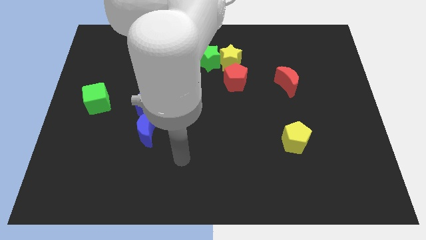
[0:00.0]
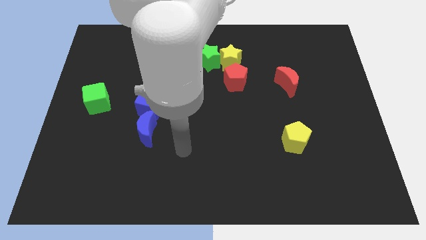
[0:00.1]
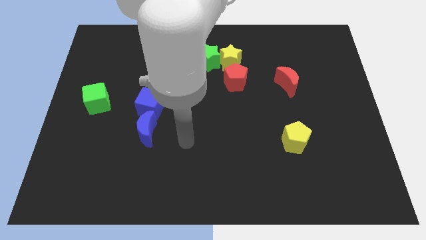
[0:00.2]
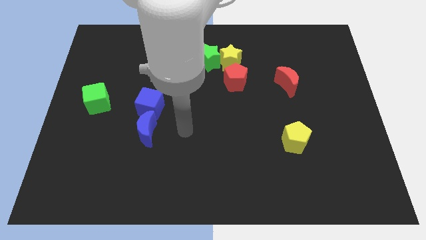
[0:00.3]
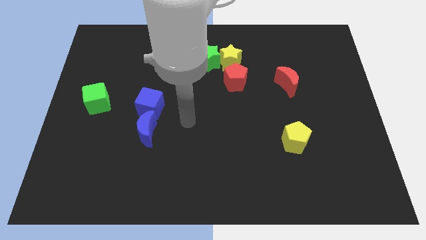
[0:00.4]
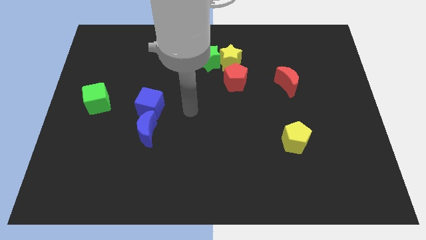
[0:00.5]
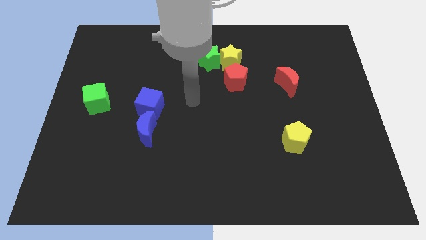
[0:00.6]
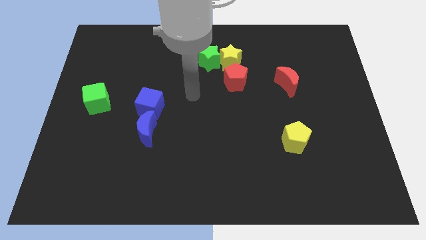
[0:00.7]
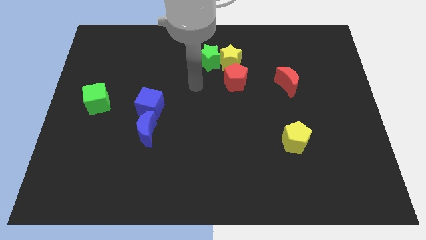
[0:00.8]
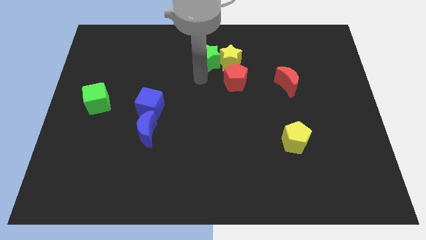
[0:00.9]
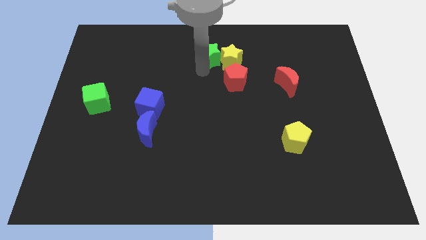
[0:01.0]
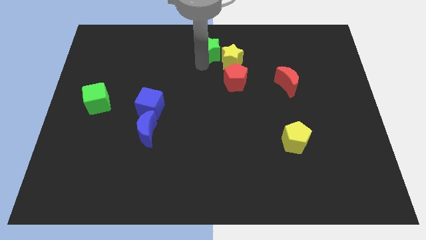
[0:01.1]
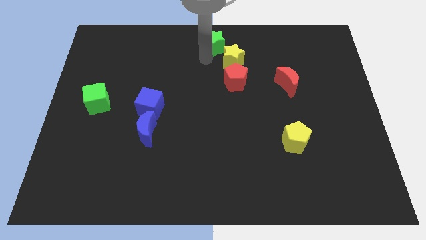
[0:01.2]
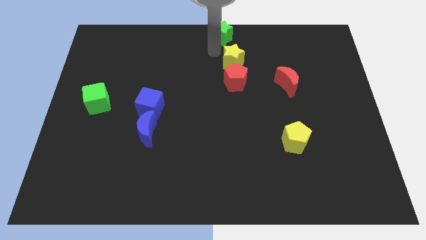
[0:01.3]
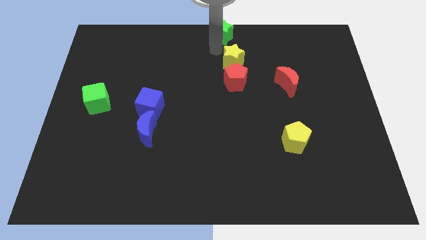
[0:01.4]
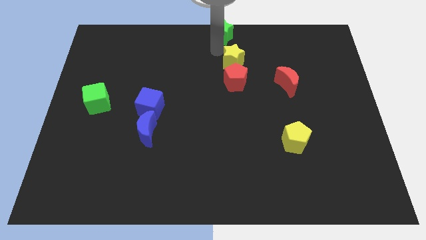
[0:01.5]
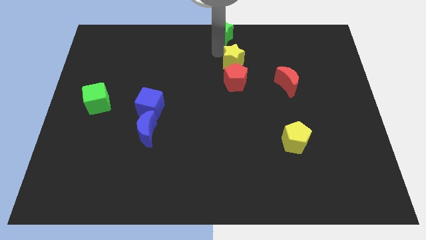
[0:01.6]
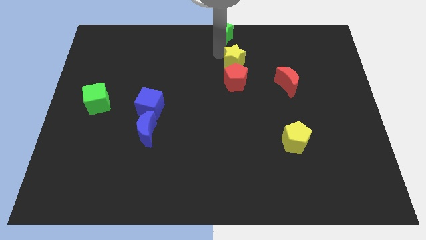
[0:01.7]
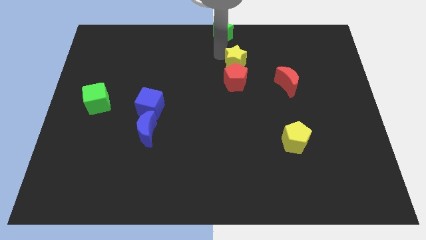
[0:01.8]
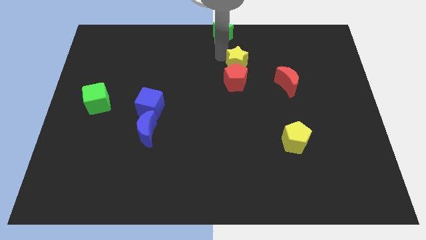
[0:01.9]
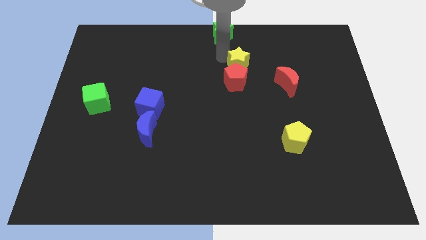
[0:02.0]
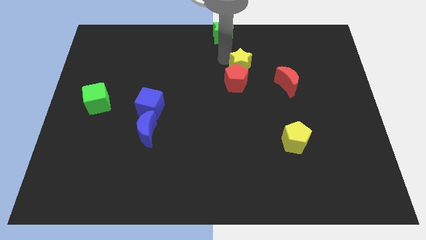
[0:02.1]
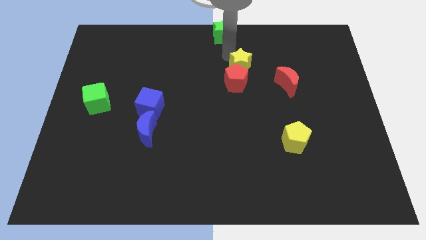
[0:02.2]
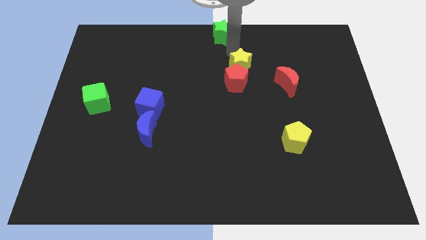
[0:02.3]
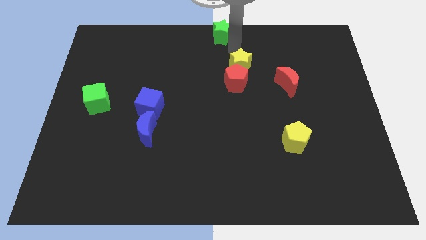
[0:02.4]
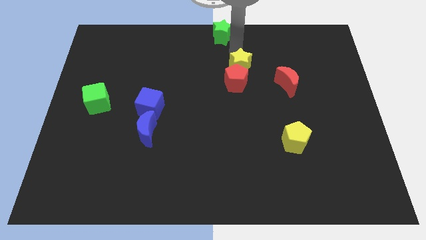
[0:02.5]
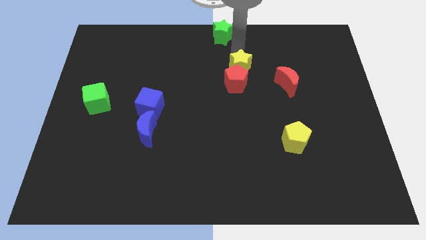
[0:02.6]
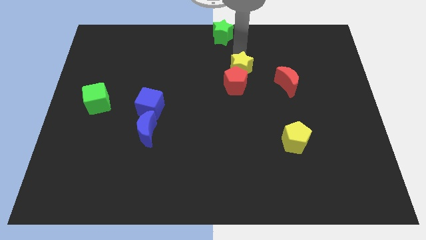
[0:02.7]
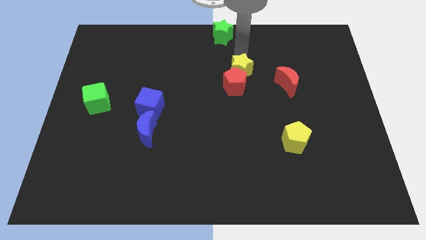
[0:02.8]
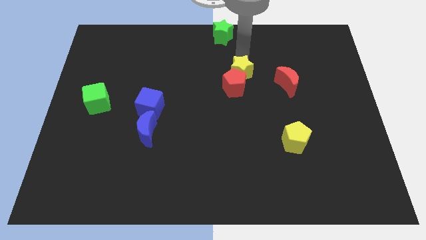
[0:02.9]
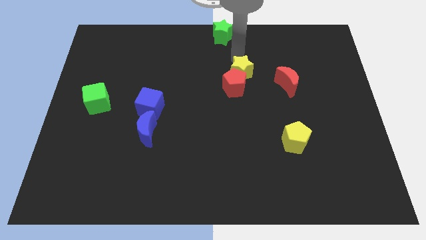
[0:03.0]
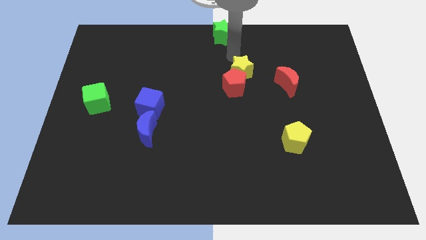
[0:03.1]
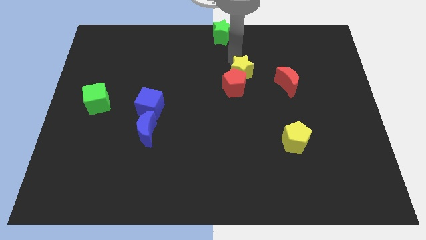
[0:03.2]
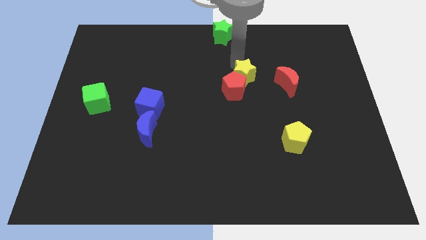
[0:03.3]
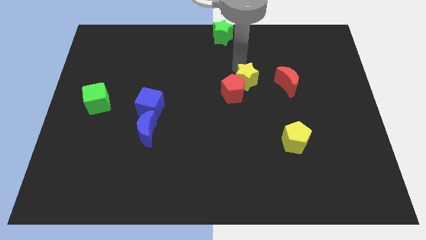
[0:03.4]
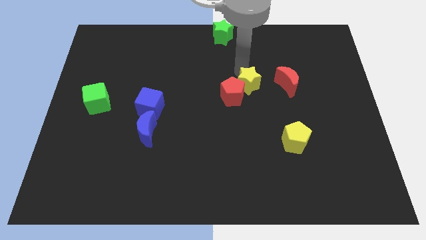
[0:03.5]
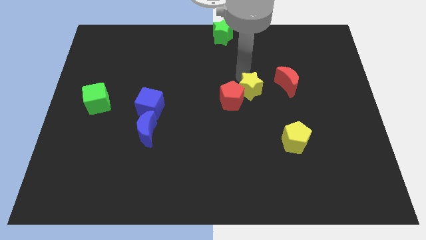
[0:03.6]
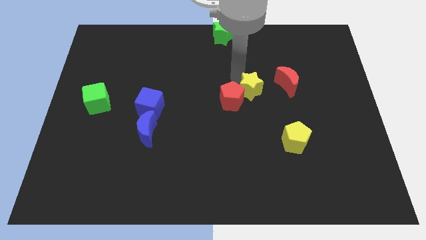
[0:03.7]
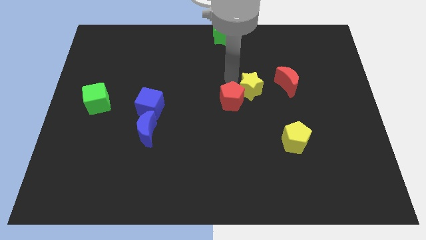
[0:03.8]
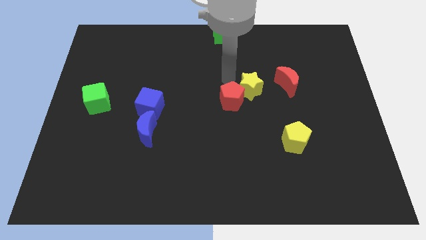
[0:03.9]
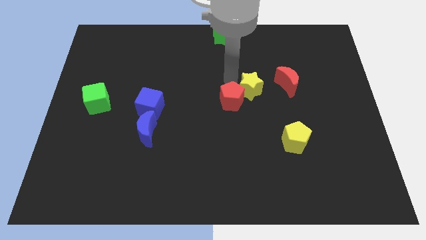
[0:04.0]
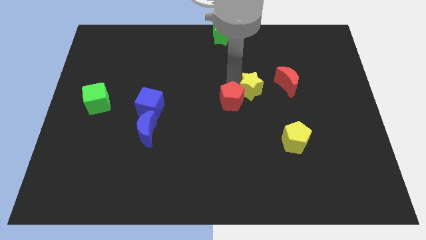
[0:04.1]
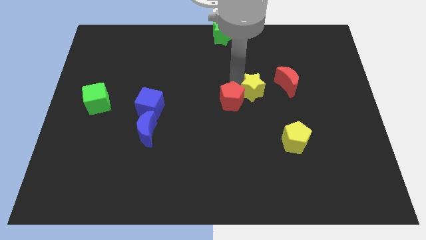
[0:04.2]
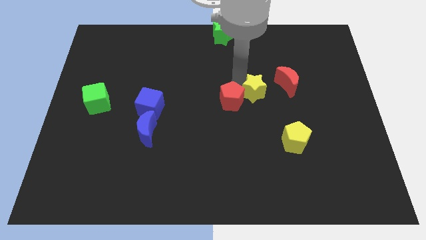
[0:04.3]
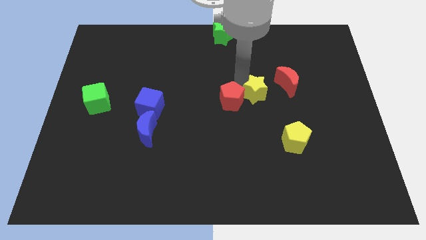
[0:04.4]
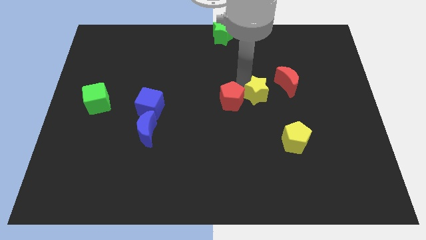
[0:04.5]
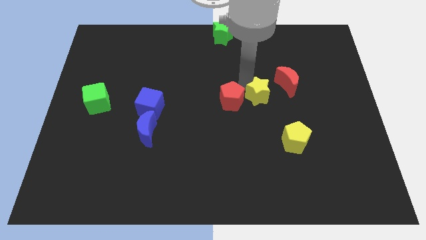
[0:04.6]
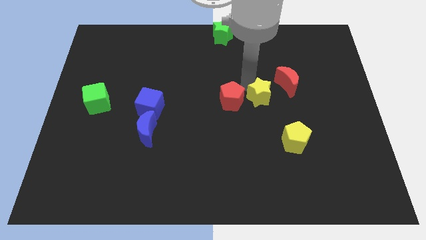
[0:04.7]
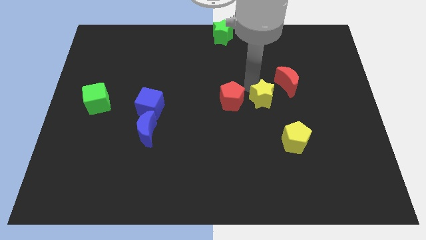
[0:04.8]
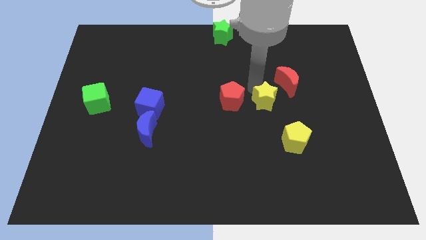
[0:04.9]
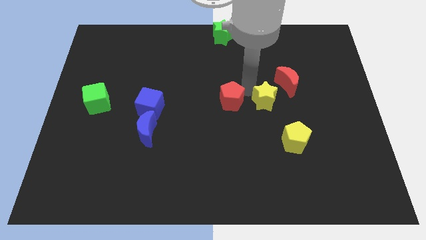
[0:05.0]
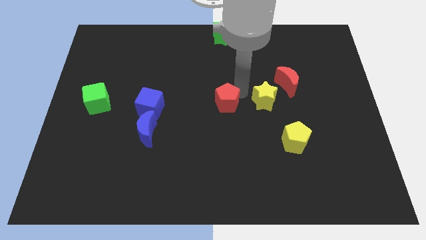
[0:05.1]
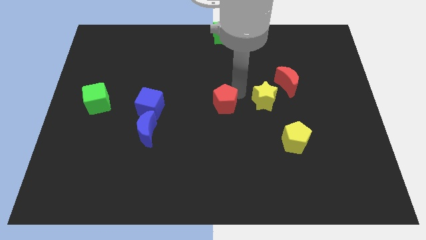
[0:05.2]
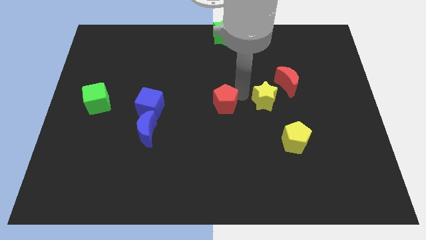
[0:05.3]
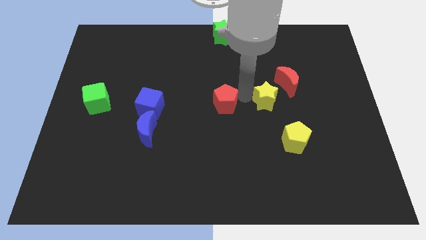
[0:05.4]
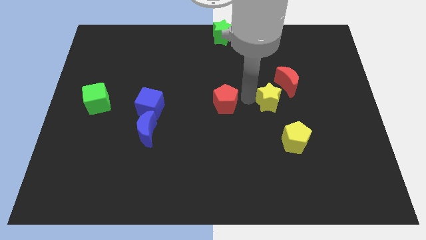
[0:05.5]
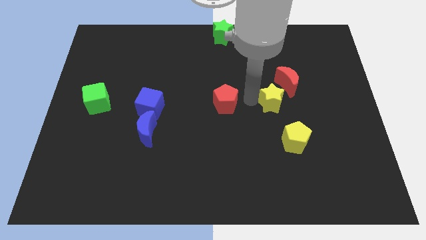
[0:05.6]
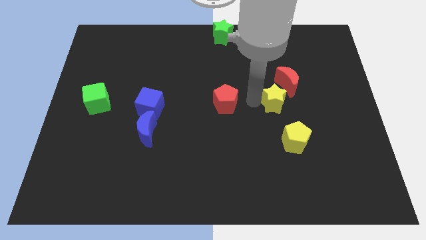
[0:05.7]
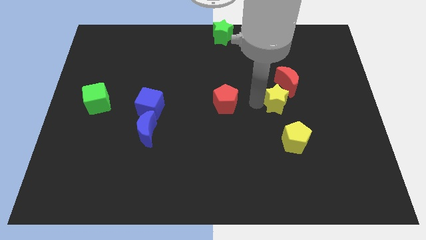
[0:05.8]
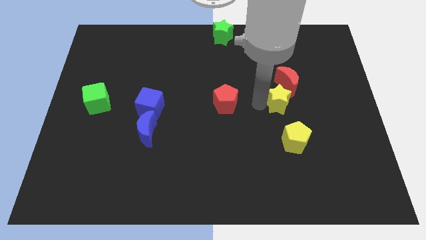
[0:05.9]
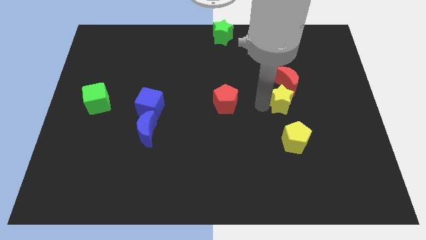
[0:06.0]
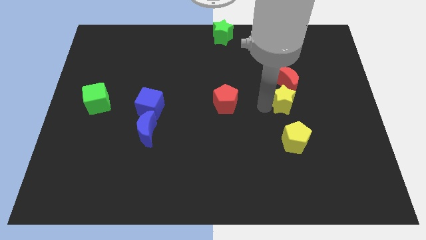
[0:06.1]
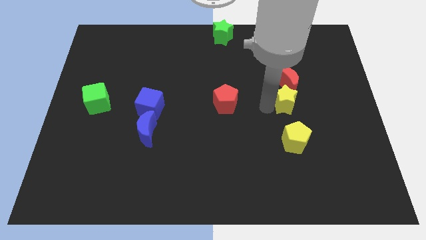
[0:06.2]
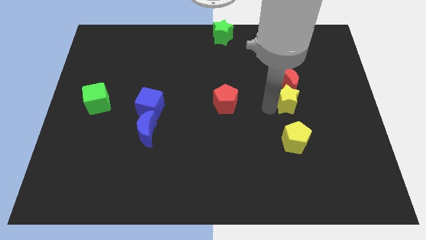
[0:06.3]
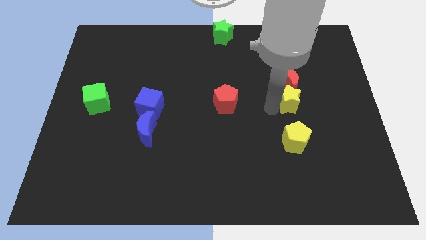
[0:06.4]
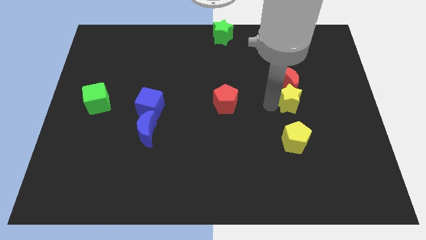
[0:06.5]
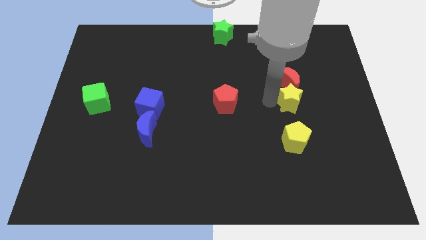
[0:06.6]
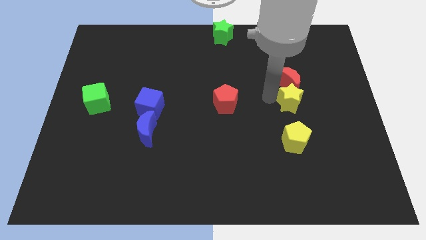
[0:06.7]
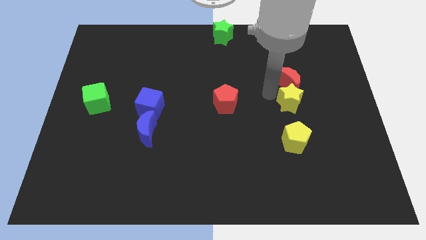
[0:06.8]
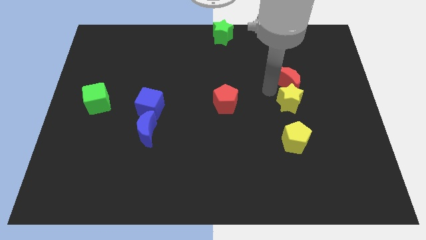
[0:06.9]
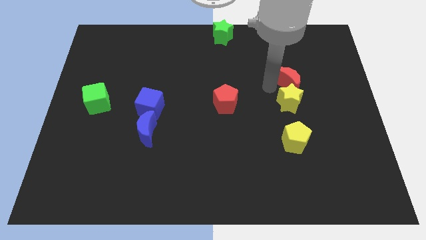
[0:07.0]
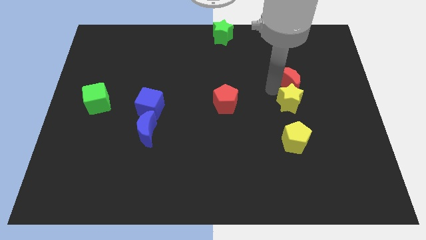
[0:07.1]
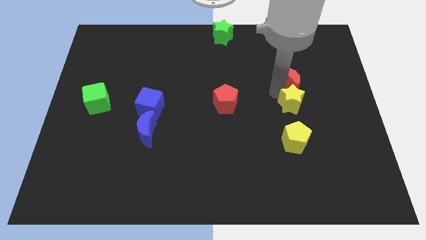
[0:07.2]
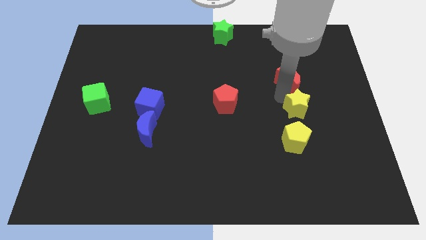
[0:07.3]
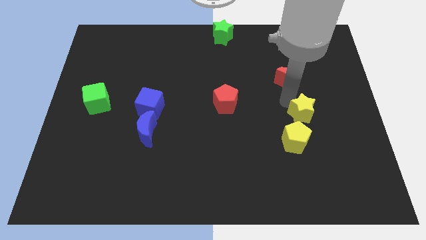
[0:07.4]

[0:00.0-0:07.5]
push the yellow star diagonally up and to the right of the yellow pentagon

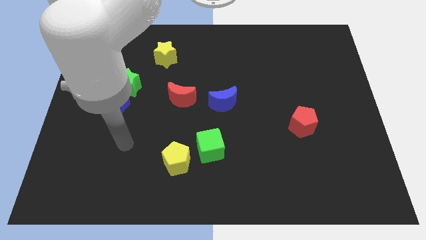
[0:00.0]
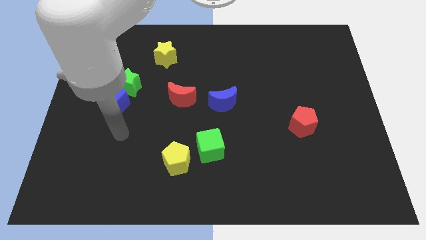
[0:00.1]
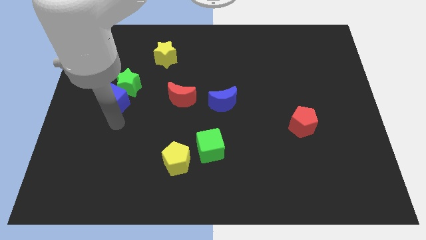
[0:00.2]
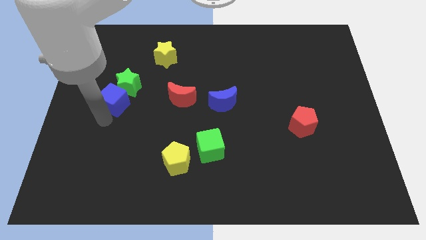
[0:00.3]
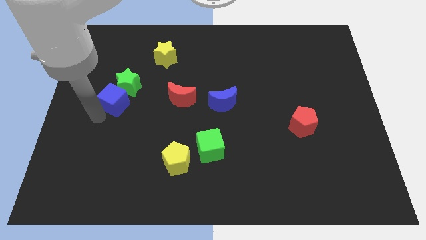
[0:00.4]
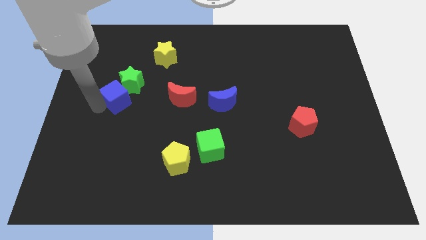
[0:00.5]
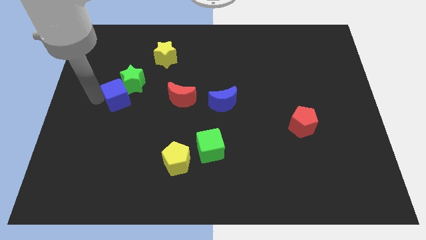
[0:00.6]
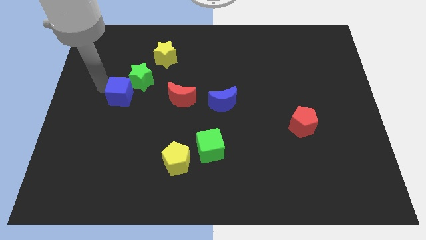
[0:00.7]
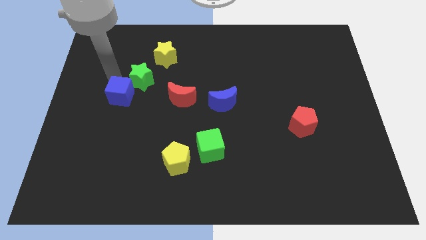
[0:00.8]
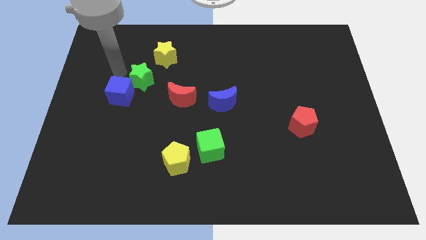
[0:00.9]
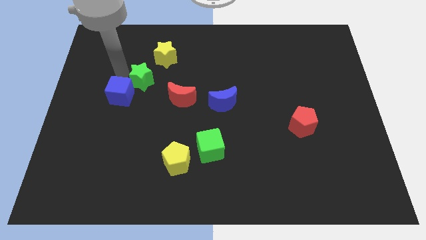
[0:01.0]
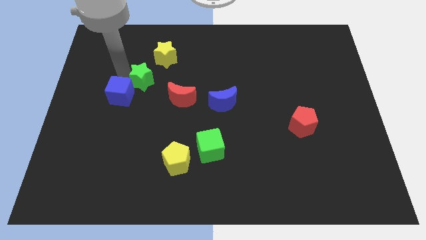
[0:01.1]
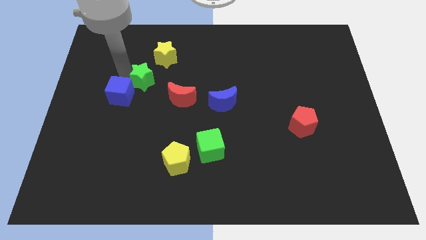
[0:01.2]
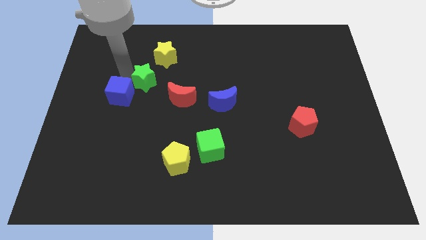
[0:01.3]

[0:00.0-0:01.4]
push the green star below the yellow star
